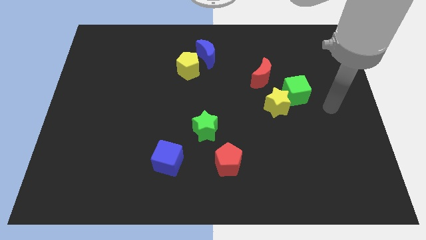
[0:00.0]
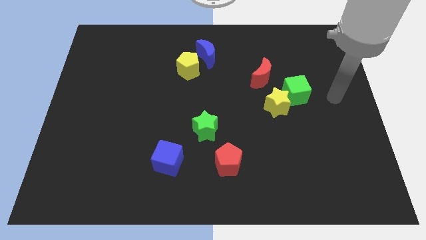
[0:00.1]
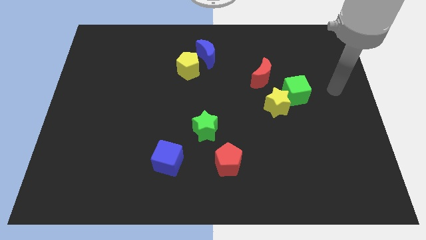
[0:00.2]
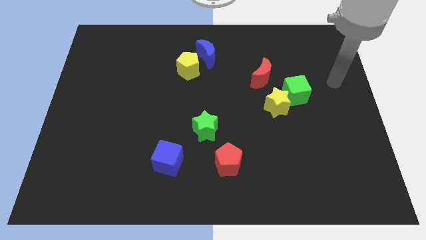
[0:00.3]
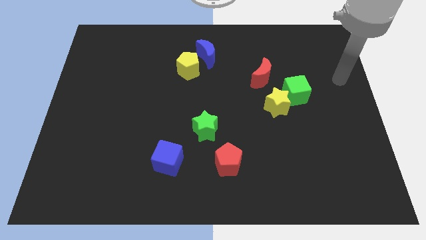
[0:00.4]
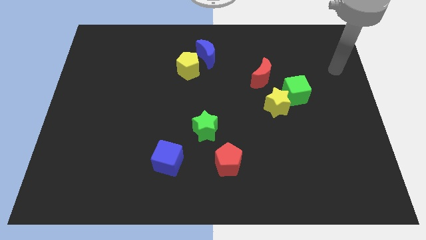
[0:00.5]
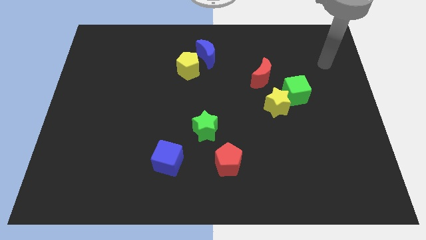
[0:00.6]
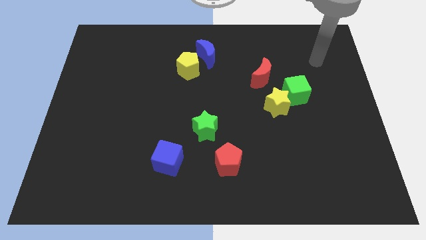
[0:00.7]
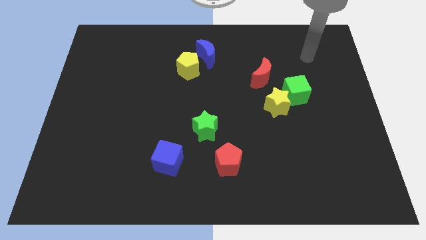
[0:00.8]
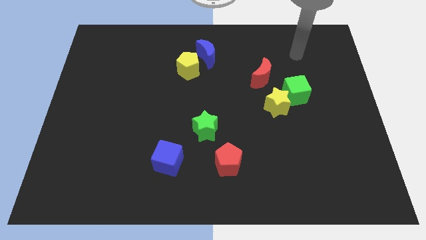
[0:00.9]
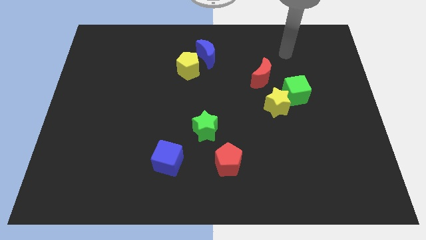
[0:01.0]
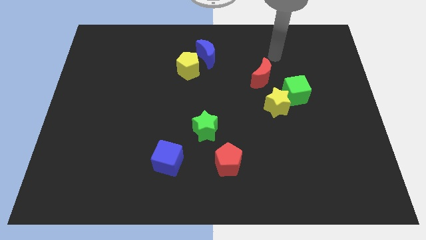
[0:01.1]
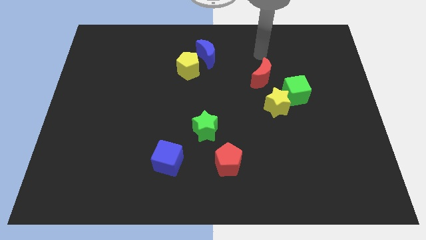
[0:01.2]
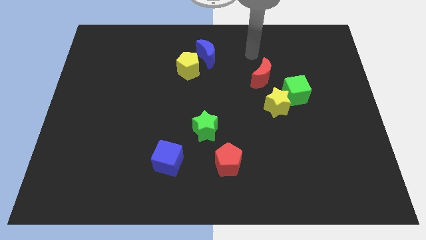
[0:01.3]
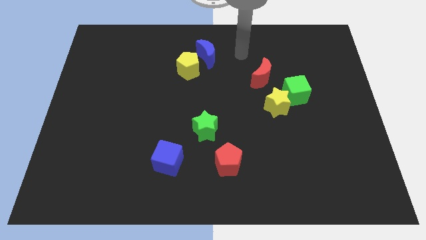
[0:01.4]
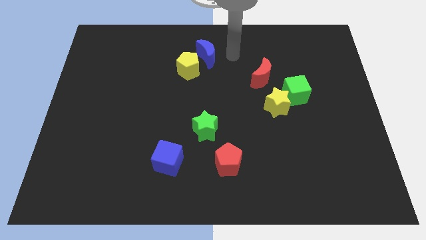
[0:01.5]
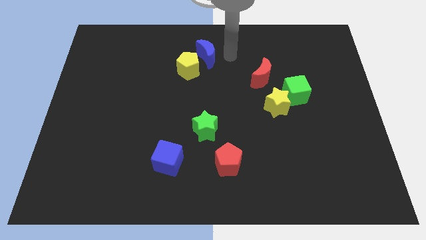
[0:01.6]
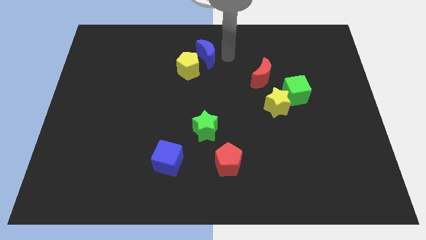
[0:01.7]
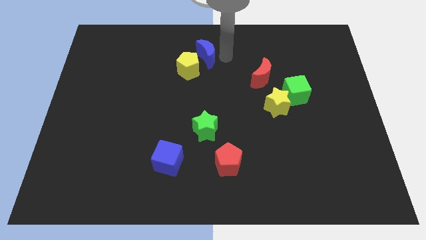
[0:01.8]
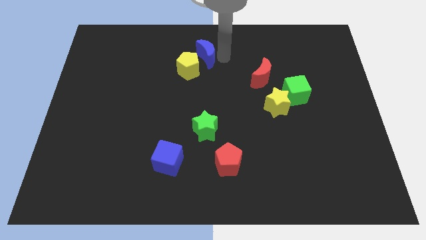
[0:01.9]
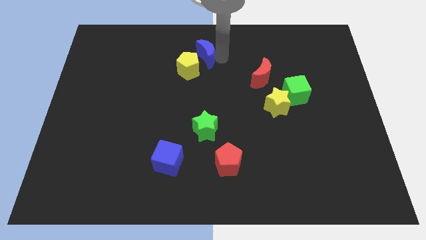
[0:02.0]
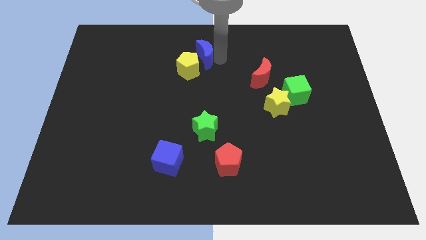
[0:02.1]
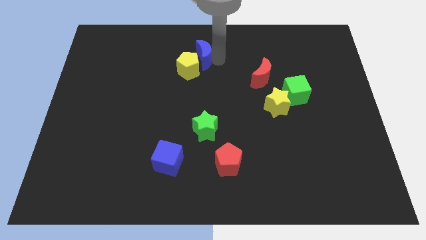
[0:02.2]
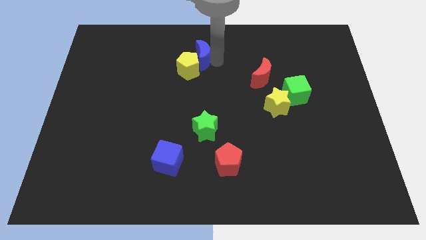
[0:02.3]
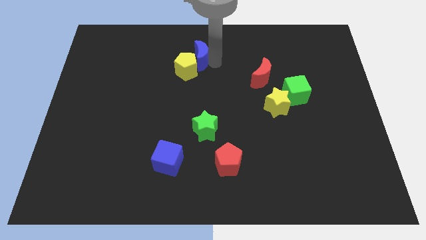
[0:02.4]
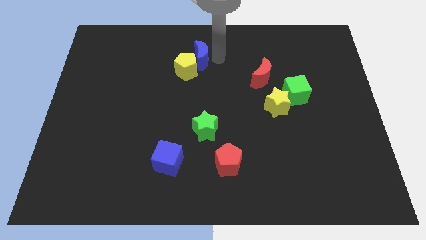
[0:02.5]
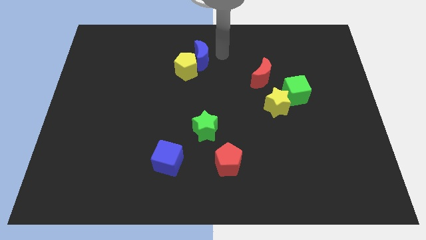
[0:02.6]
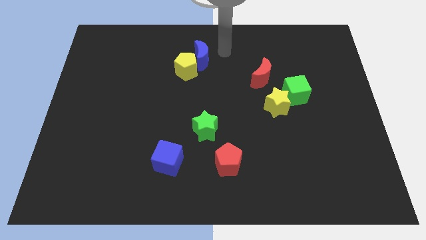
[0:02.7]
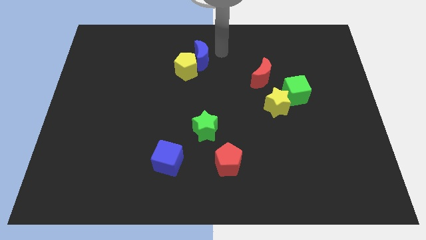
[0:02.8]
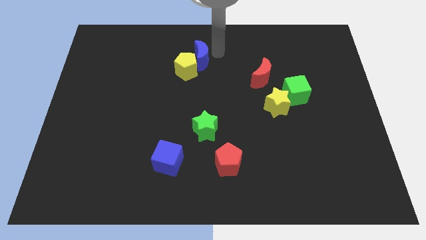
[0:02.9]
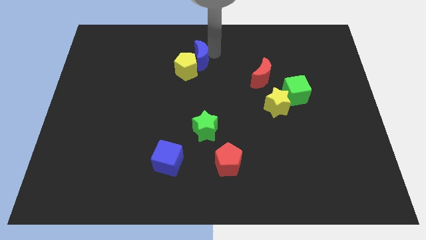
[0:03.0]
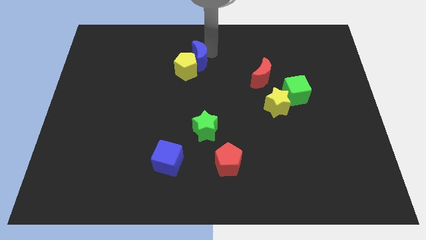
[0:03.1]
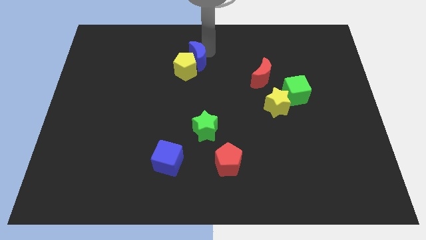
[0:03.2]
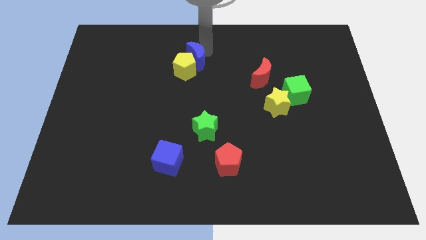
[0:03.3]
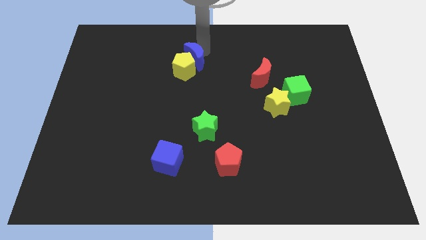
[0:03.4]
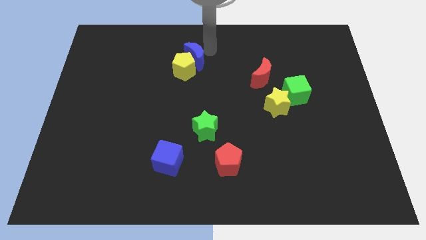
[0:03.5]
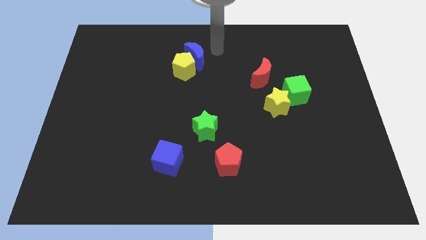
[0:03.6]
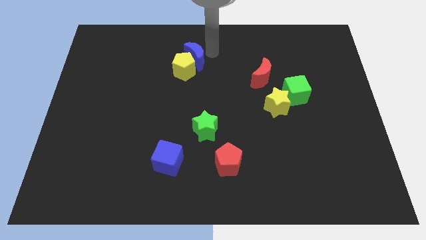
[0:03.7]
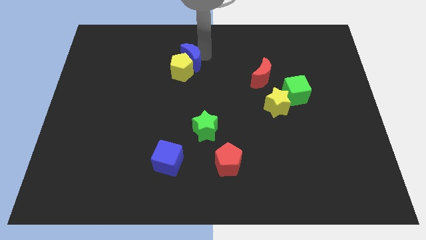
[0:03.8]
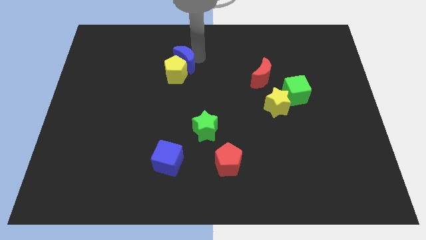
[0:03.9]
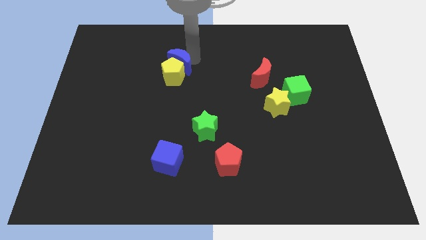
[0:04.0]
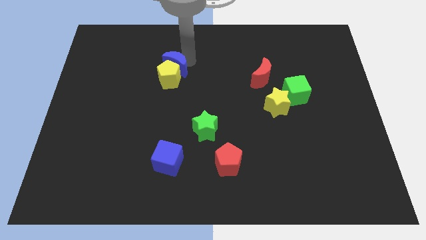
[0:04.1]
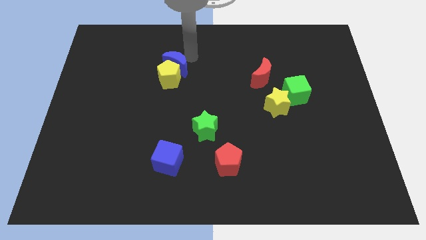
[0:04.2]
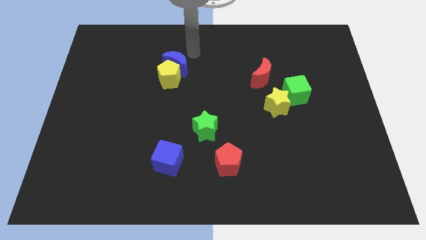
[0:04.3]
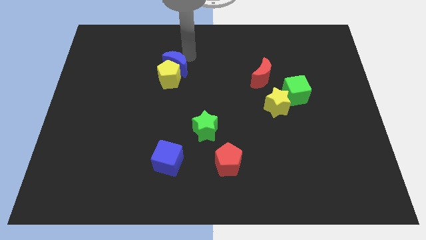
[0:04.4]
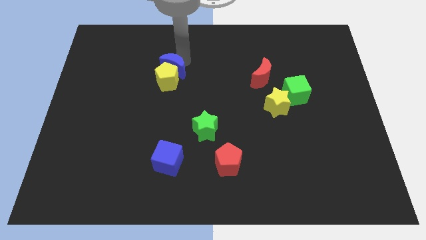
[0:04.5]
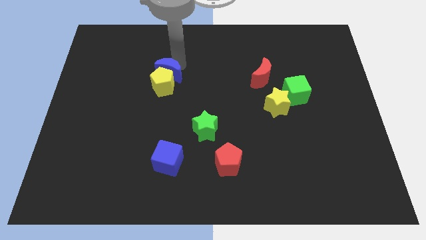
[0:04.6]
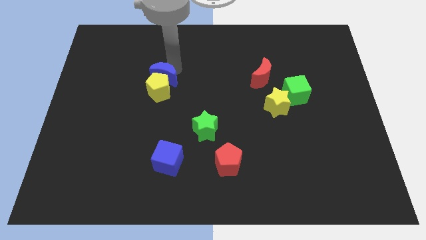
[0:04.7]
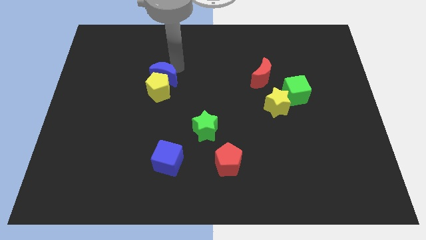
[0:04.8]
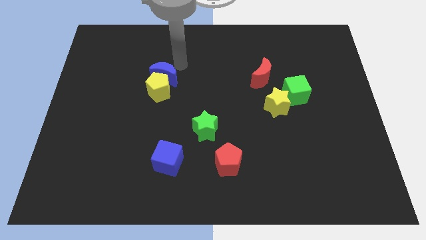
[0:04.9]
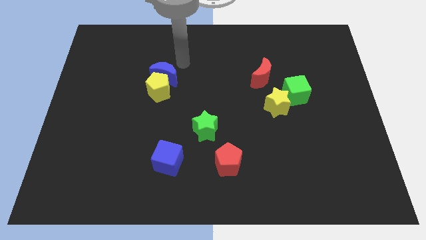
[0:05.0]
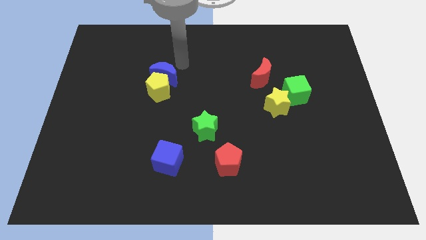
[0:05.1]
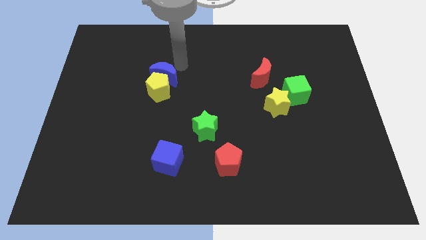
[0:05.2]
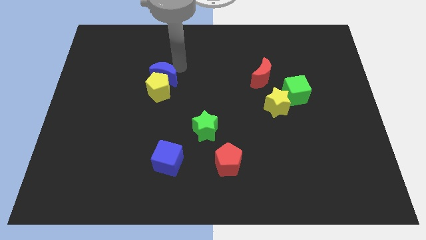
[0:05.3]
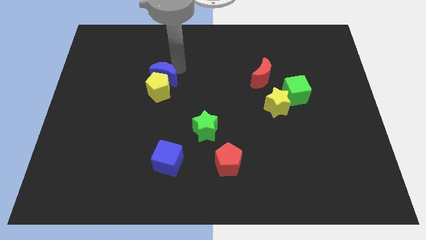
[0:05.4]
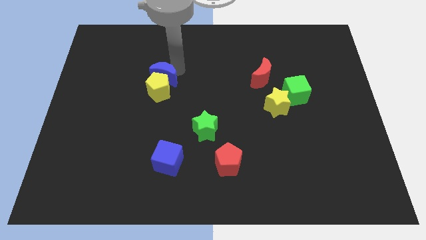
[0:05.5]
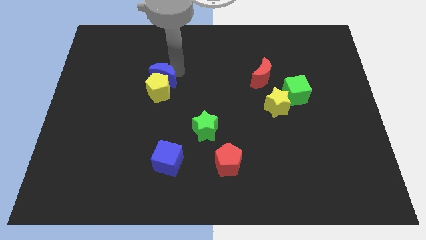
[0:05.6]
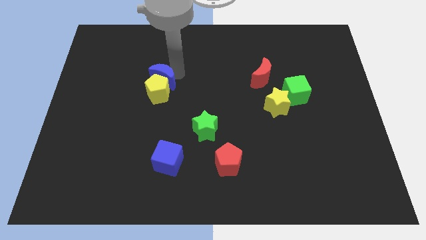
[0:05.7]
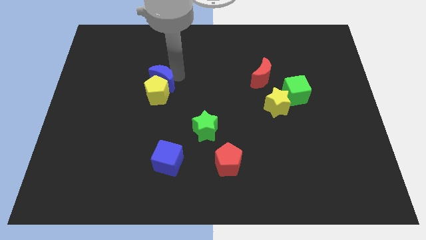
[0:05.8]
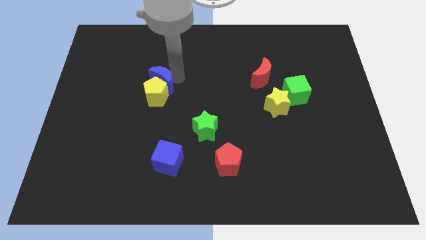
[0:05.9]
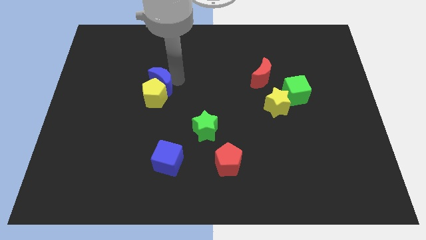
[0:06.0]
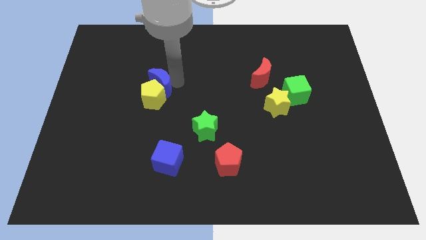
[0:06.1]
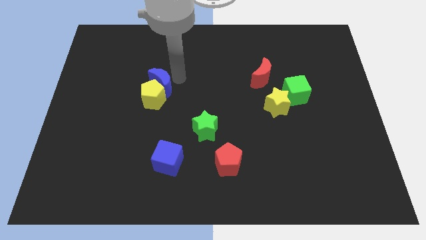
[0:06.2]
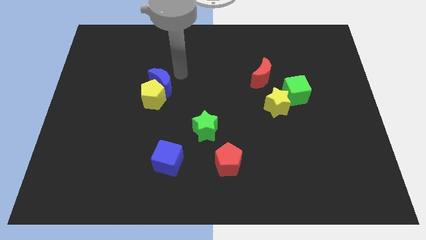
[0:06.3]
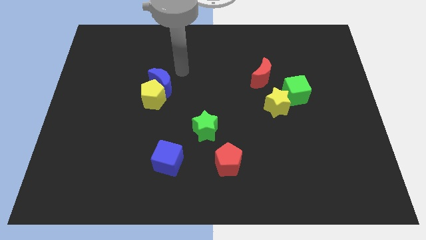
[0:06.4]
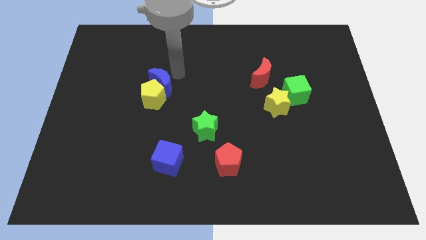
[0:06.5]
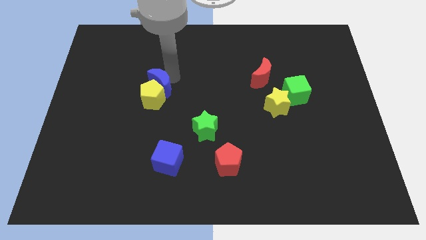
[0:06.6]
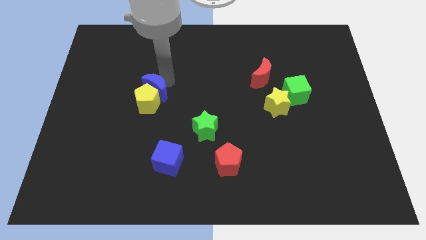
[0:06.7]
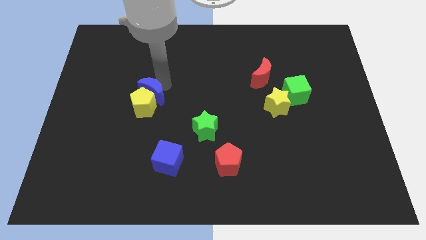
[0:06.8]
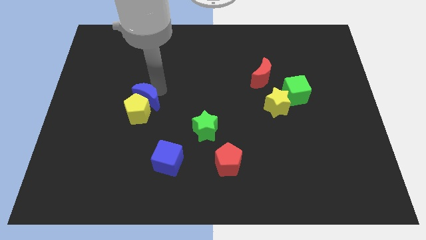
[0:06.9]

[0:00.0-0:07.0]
push the blue moon downwards and then to the left

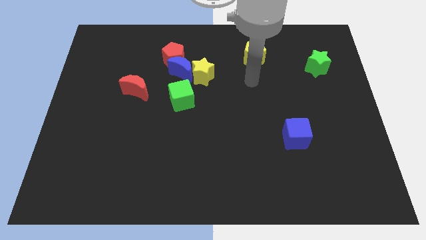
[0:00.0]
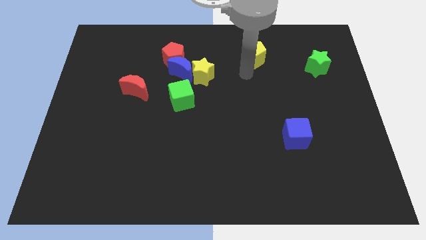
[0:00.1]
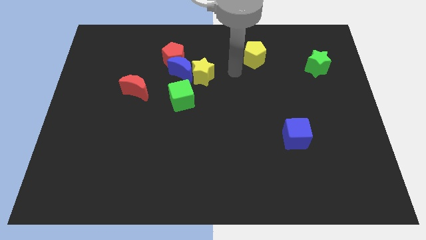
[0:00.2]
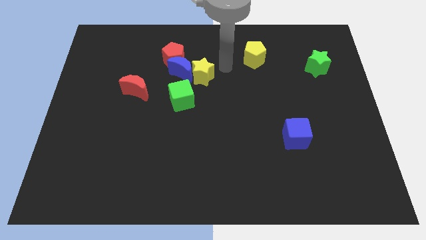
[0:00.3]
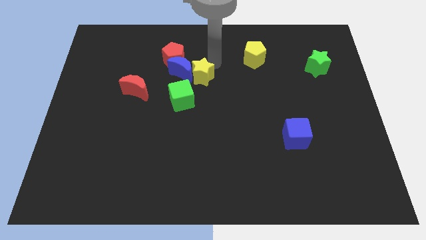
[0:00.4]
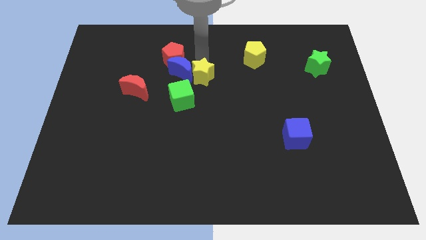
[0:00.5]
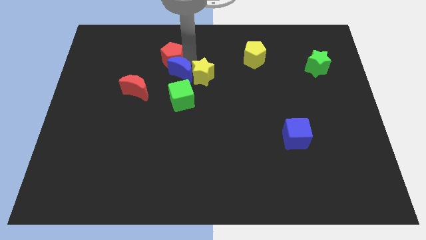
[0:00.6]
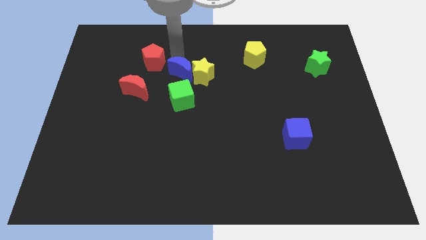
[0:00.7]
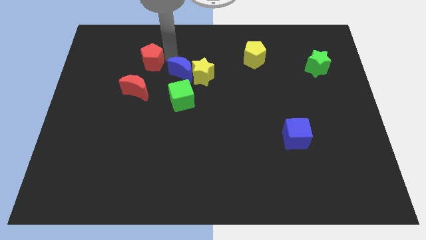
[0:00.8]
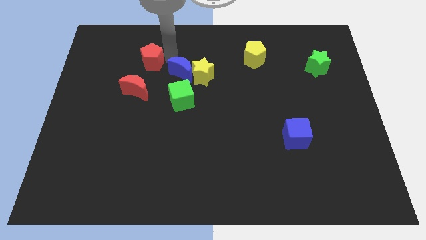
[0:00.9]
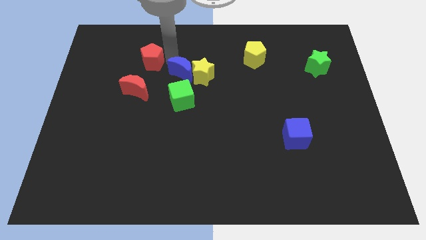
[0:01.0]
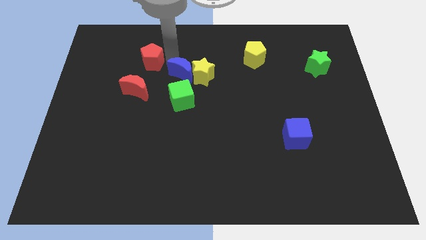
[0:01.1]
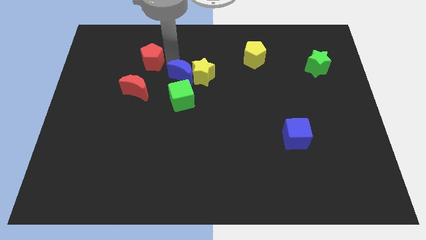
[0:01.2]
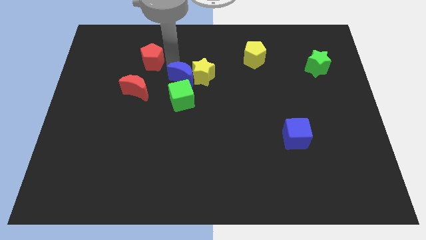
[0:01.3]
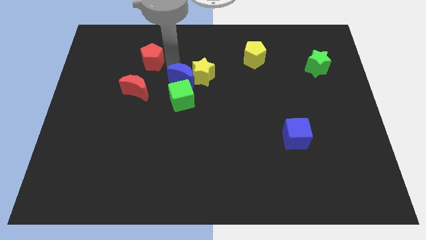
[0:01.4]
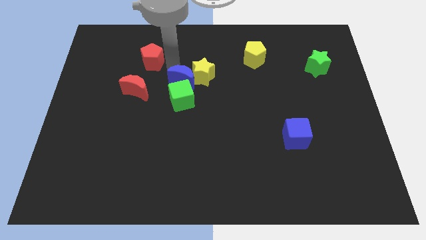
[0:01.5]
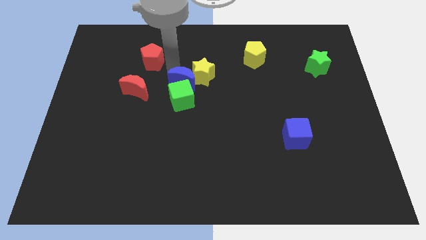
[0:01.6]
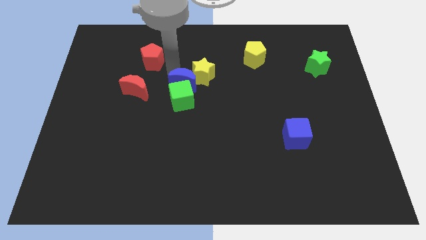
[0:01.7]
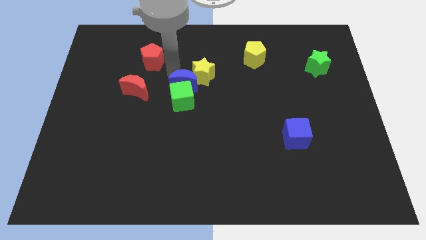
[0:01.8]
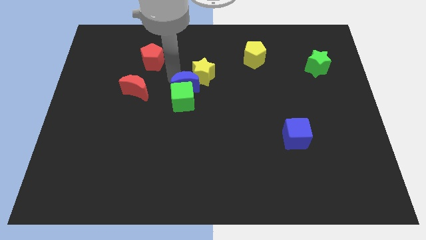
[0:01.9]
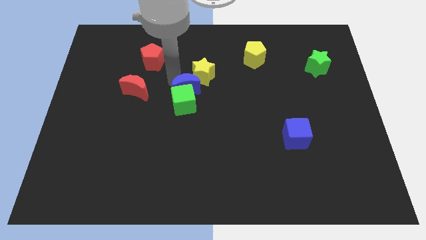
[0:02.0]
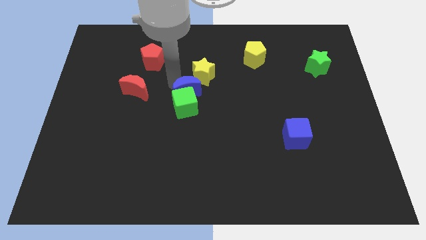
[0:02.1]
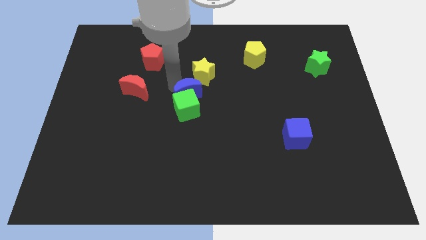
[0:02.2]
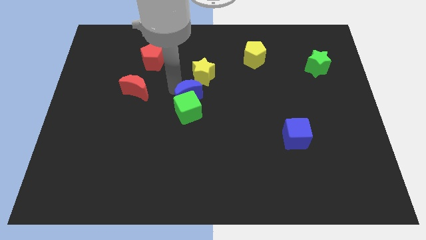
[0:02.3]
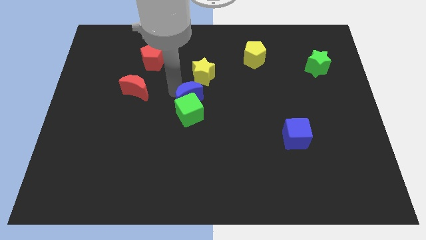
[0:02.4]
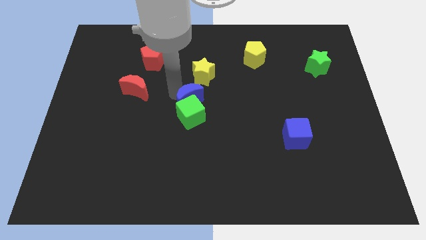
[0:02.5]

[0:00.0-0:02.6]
push the blue moon down and right diagonally a little
